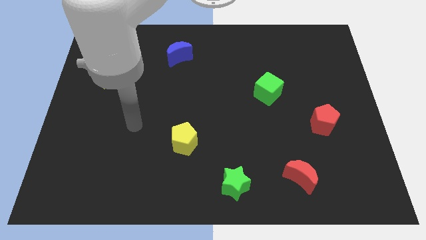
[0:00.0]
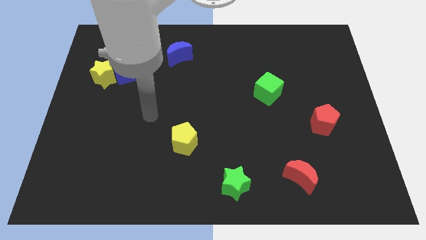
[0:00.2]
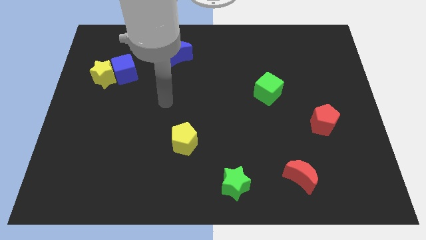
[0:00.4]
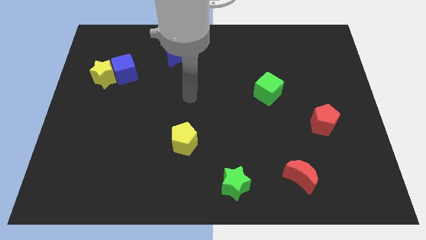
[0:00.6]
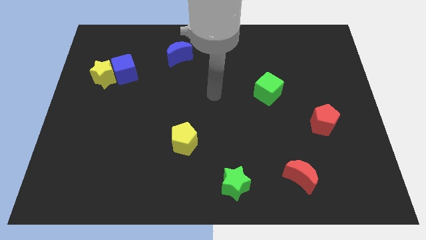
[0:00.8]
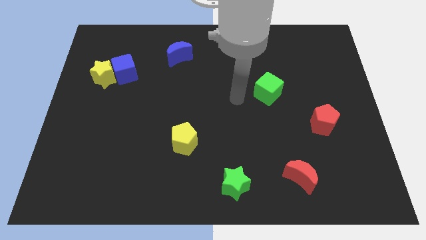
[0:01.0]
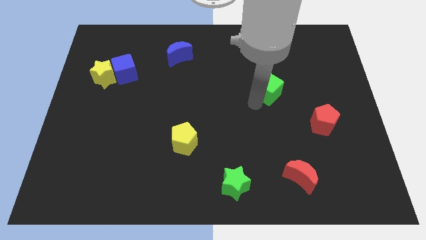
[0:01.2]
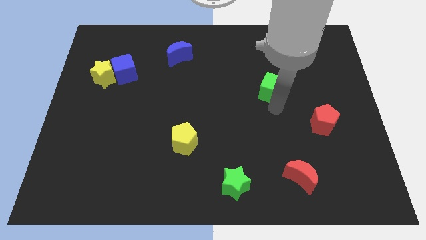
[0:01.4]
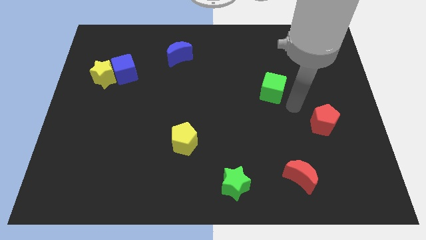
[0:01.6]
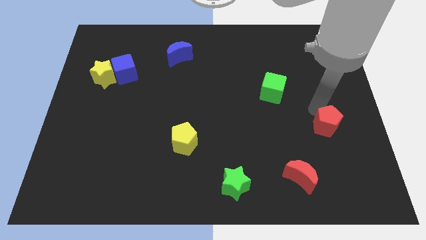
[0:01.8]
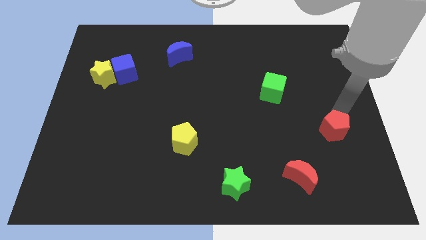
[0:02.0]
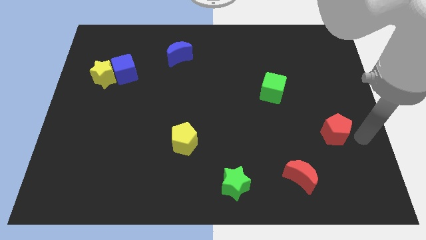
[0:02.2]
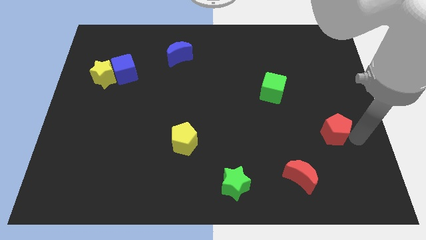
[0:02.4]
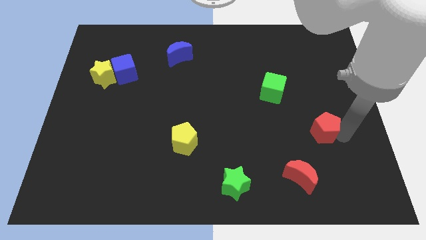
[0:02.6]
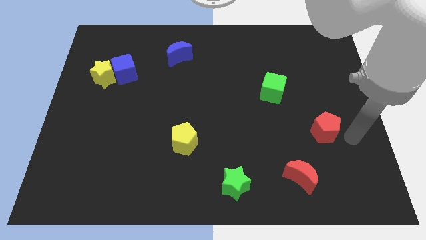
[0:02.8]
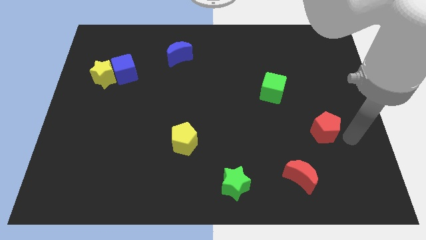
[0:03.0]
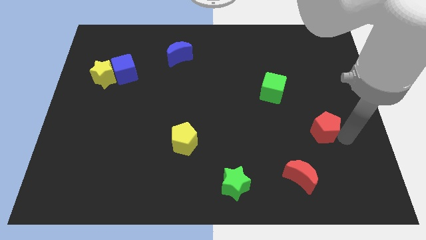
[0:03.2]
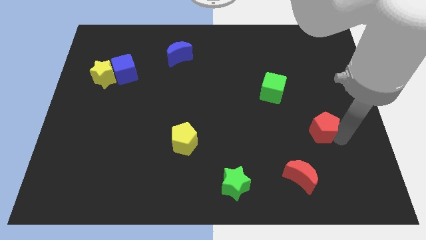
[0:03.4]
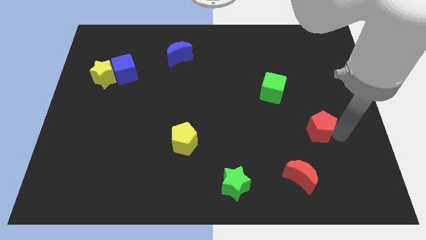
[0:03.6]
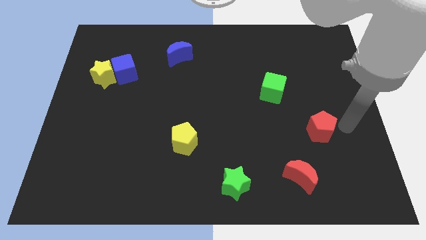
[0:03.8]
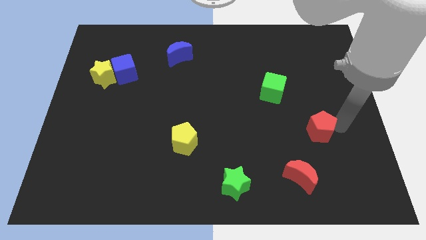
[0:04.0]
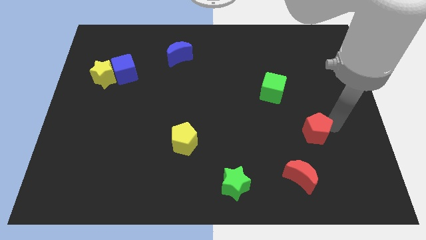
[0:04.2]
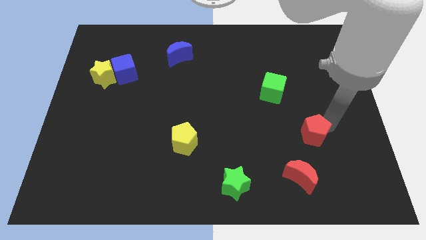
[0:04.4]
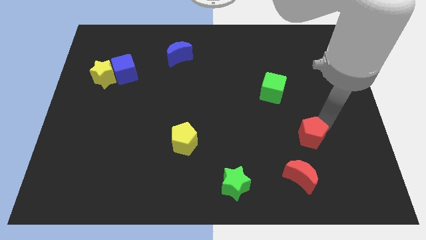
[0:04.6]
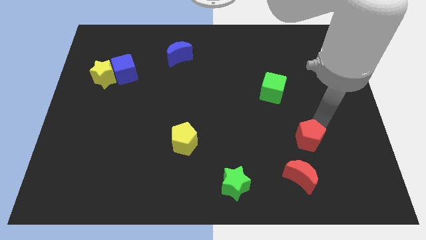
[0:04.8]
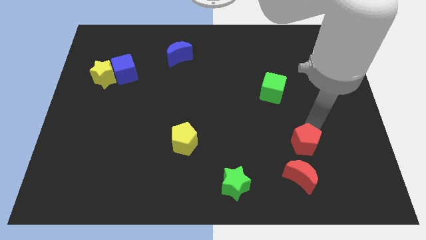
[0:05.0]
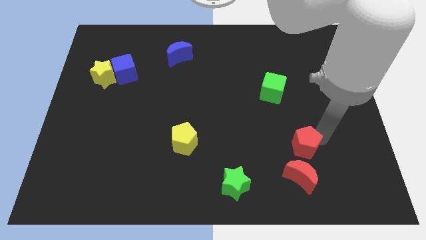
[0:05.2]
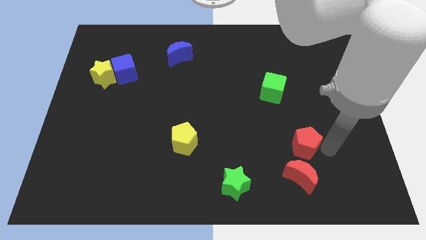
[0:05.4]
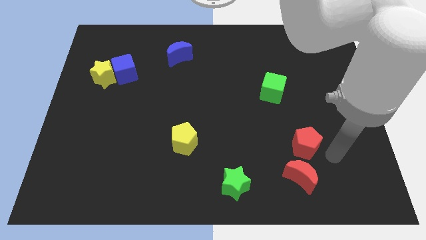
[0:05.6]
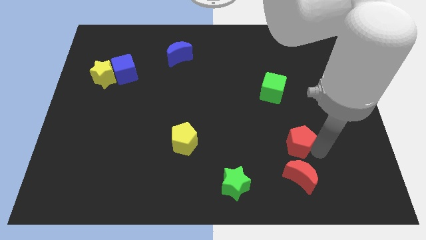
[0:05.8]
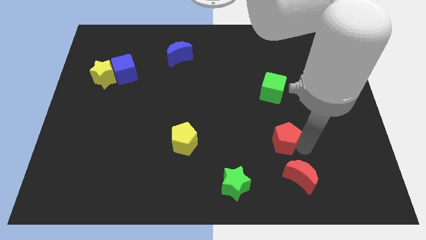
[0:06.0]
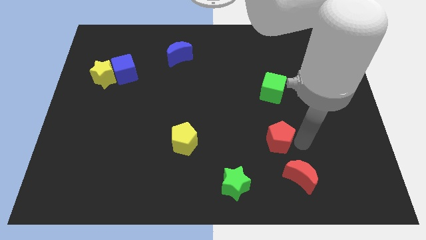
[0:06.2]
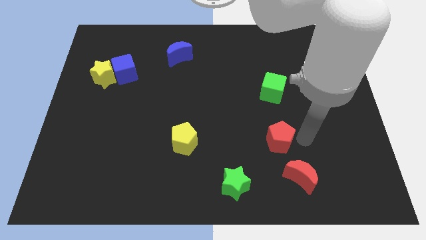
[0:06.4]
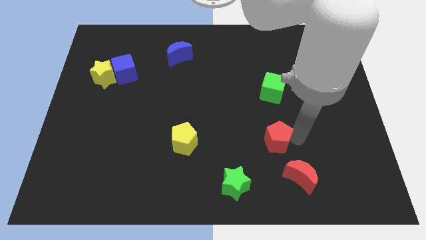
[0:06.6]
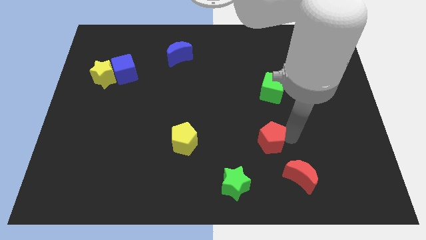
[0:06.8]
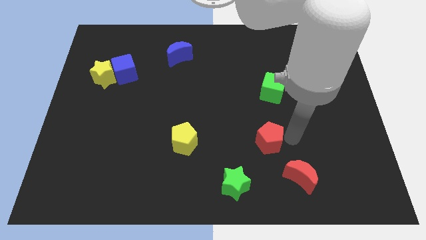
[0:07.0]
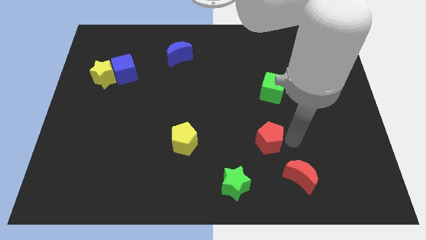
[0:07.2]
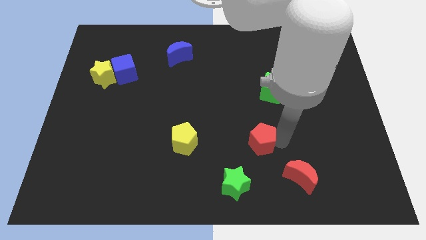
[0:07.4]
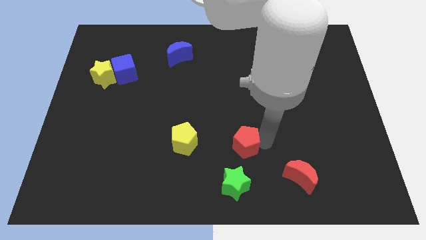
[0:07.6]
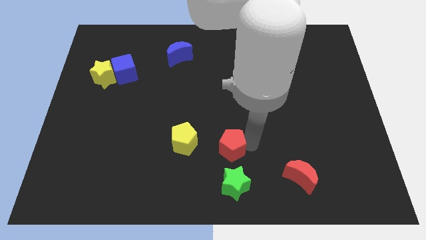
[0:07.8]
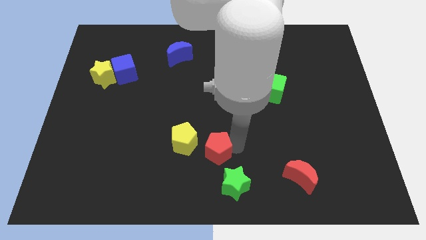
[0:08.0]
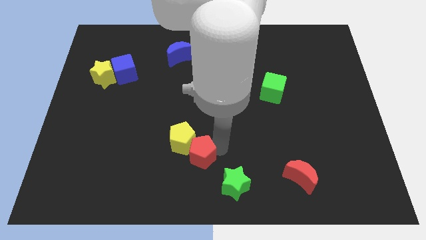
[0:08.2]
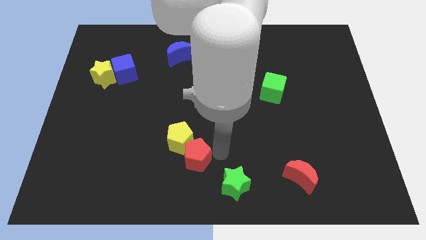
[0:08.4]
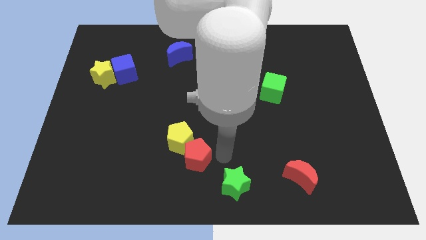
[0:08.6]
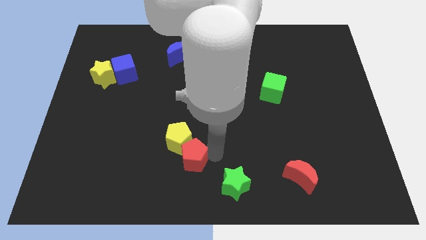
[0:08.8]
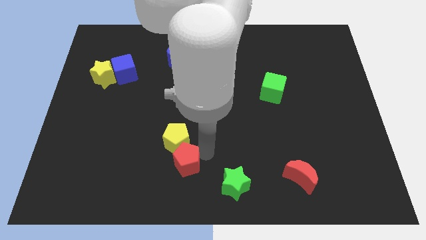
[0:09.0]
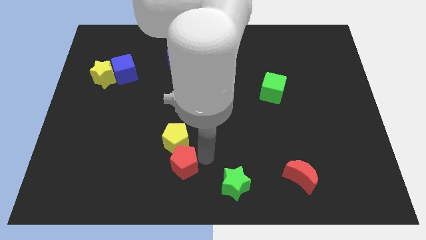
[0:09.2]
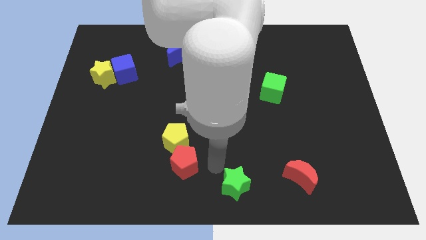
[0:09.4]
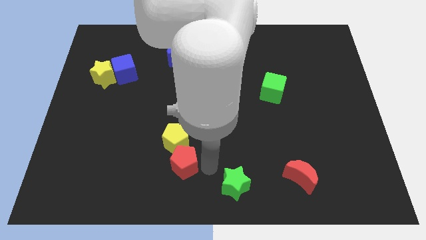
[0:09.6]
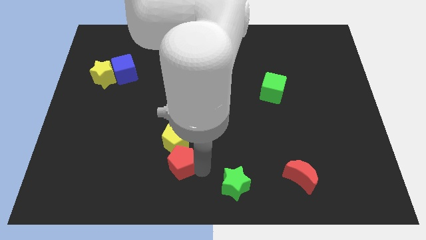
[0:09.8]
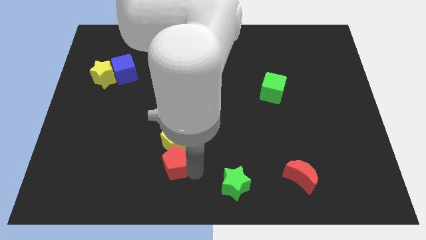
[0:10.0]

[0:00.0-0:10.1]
put the red pentagon to the bottom left side of the yellow pentagon

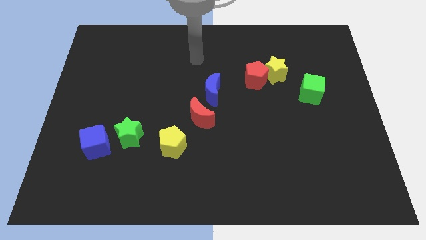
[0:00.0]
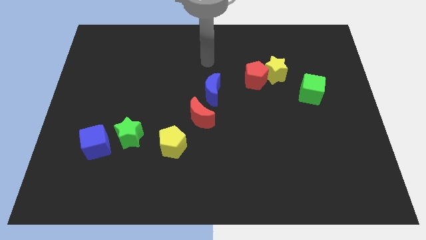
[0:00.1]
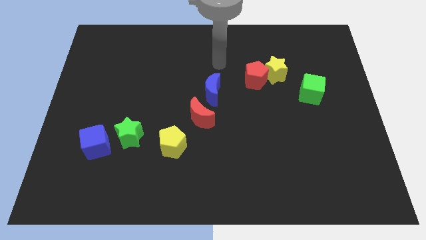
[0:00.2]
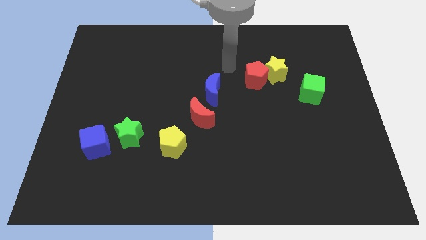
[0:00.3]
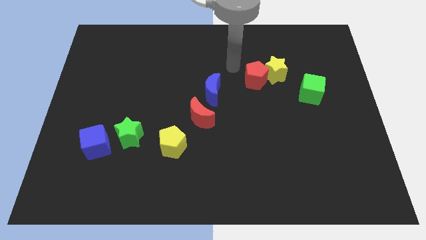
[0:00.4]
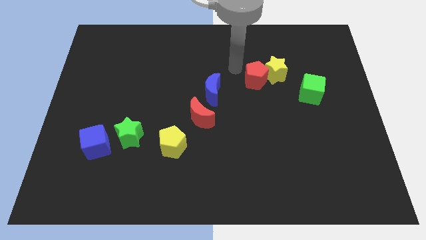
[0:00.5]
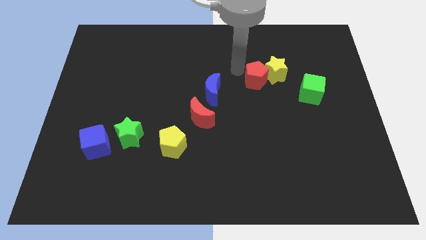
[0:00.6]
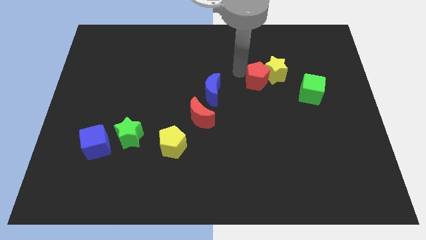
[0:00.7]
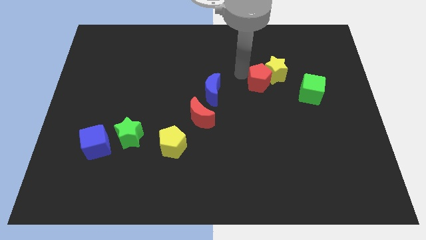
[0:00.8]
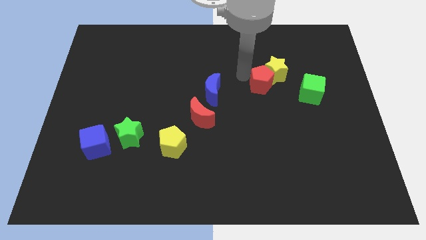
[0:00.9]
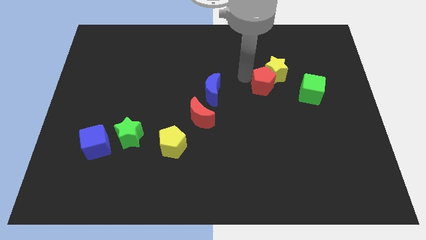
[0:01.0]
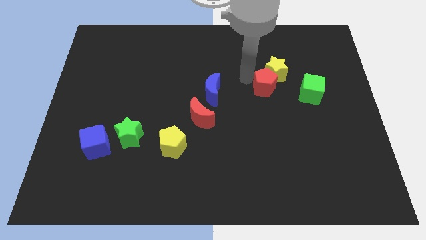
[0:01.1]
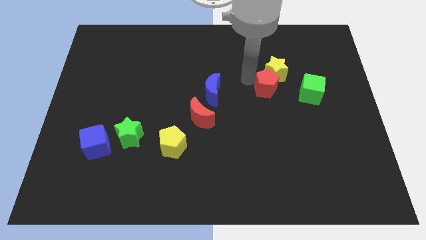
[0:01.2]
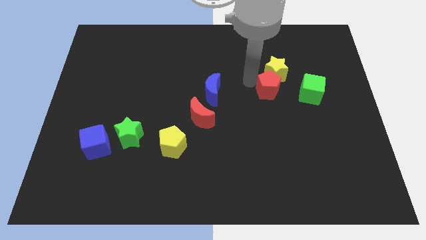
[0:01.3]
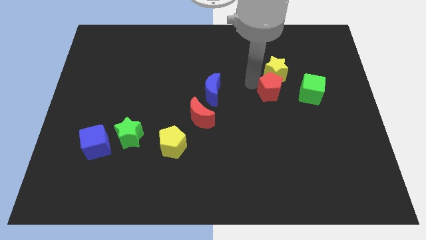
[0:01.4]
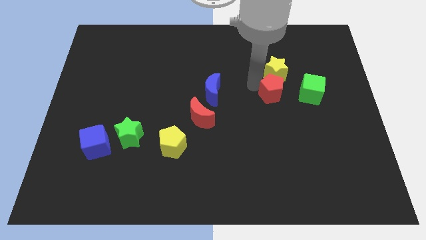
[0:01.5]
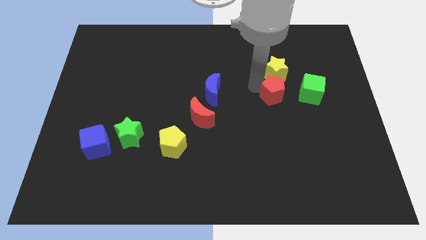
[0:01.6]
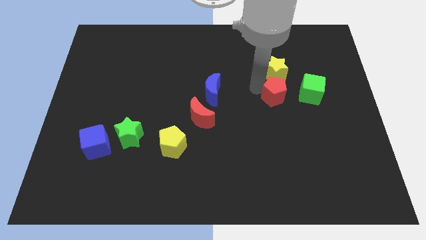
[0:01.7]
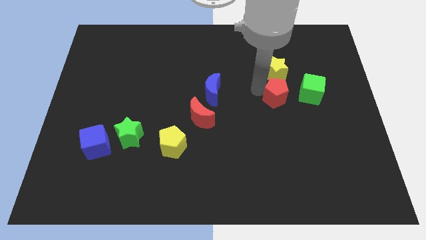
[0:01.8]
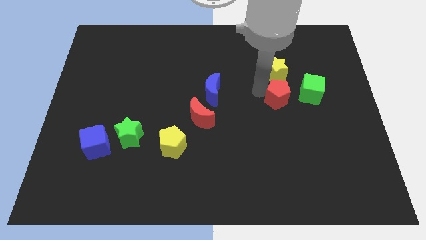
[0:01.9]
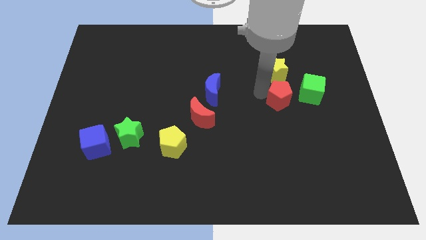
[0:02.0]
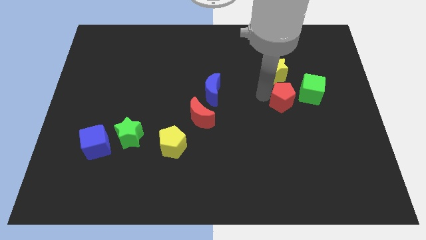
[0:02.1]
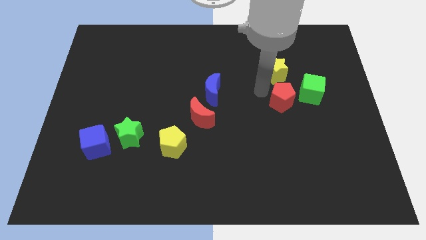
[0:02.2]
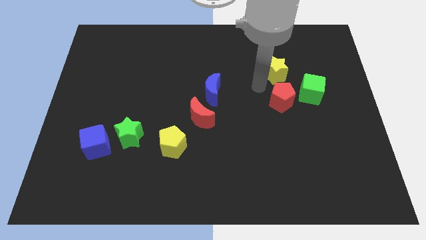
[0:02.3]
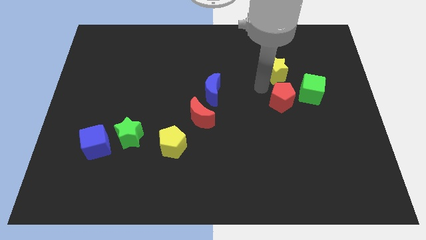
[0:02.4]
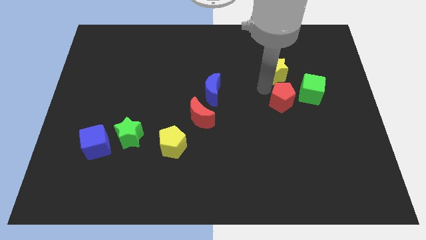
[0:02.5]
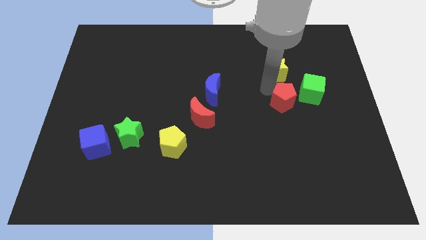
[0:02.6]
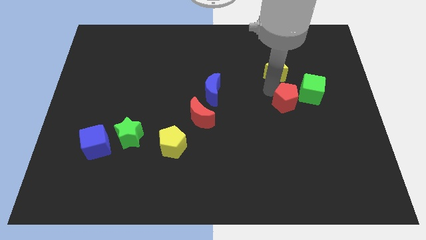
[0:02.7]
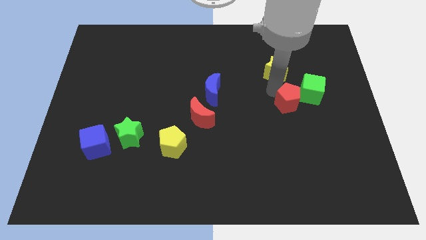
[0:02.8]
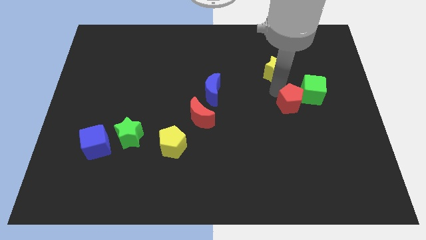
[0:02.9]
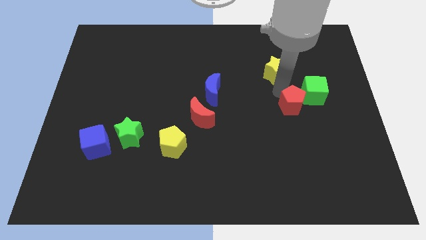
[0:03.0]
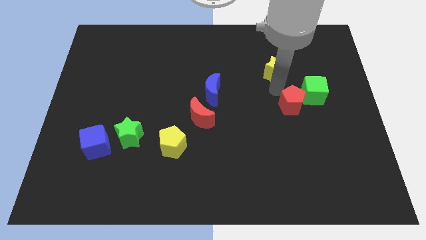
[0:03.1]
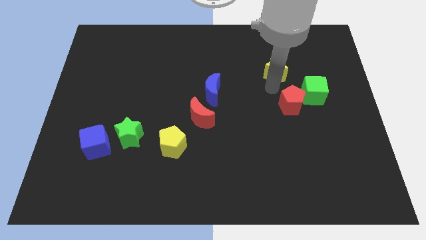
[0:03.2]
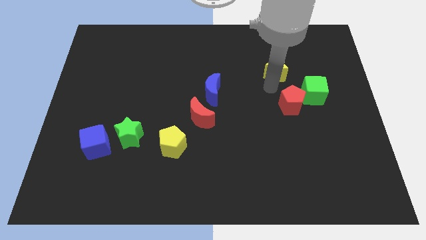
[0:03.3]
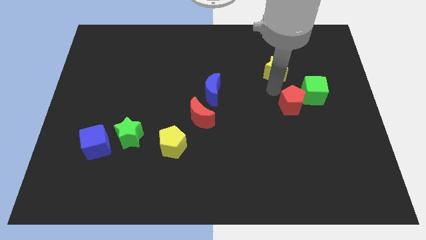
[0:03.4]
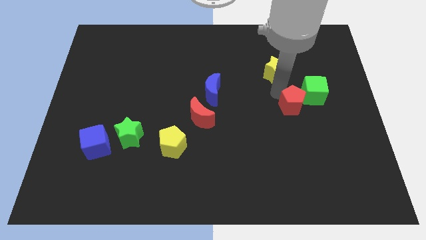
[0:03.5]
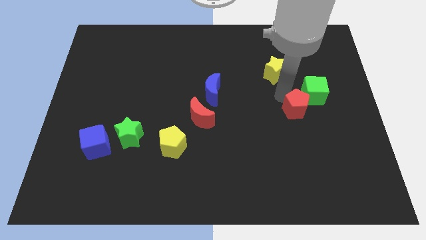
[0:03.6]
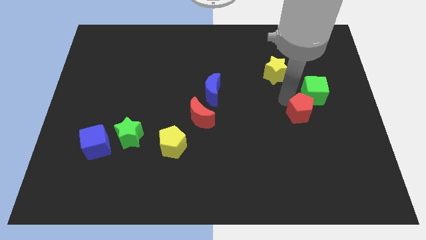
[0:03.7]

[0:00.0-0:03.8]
slide the red pentagon to the bottom of the green cube
